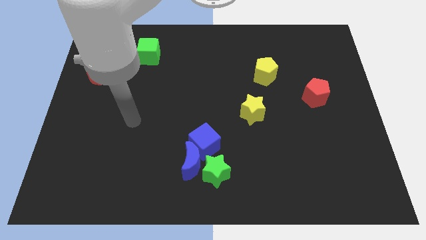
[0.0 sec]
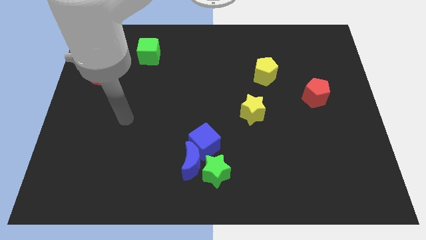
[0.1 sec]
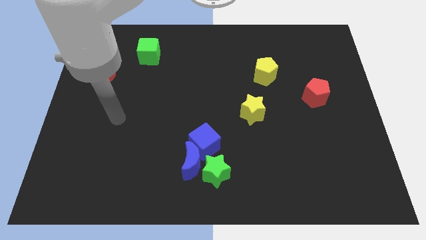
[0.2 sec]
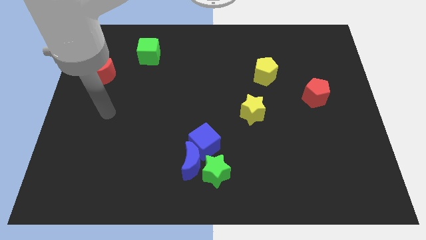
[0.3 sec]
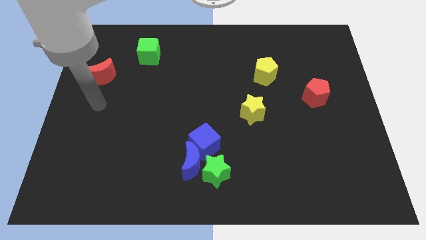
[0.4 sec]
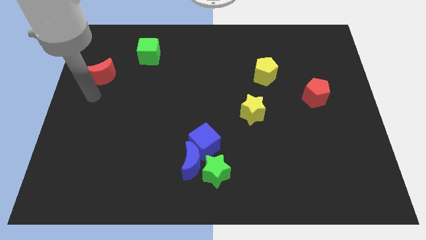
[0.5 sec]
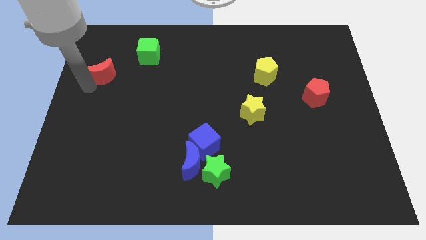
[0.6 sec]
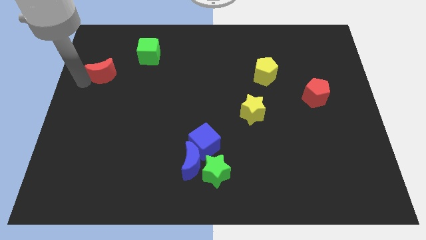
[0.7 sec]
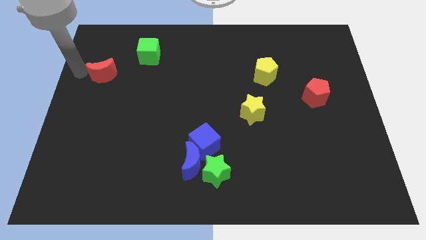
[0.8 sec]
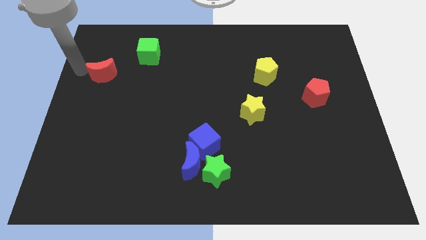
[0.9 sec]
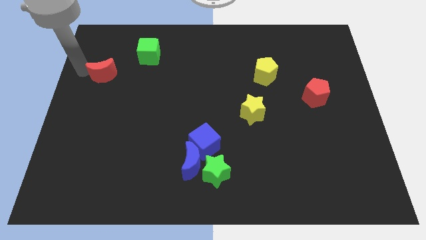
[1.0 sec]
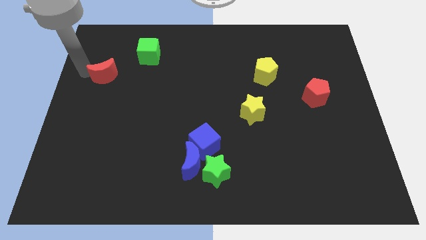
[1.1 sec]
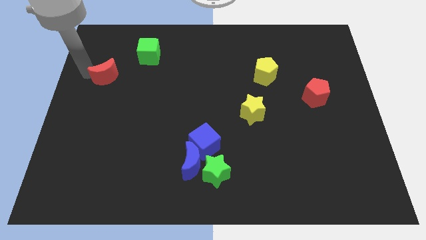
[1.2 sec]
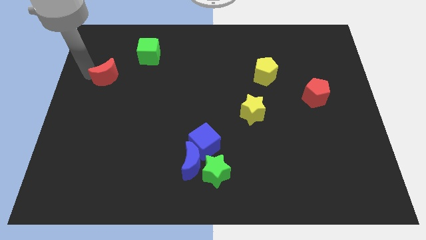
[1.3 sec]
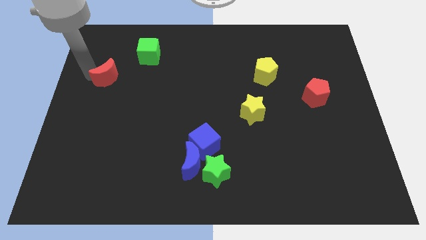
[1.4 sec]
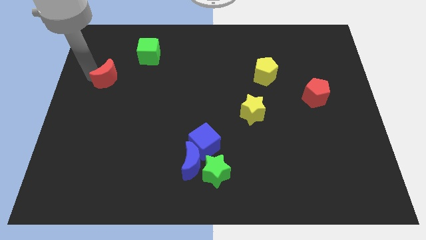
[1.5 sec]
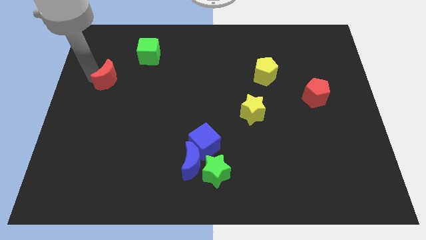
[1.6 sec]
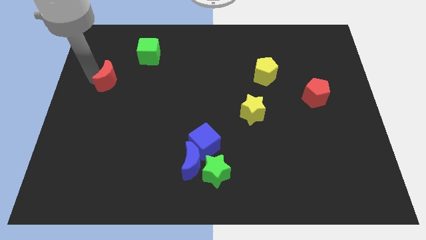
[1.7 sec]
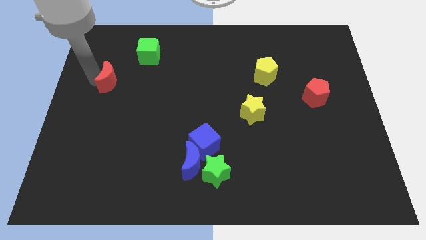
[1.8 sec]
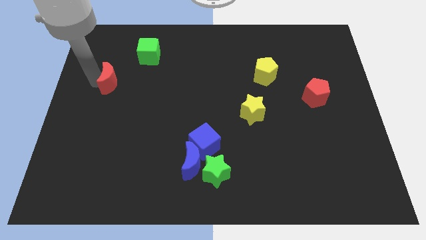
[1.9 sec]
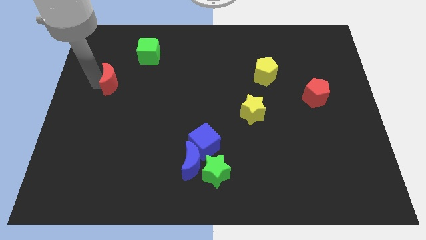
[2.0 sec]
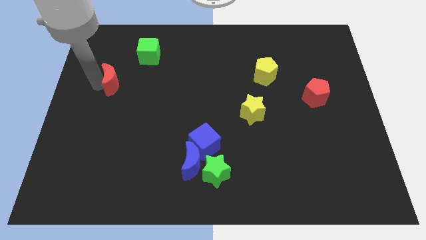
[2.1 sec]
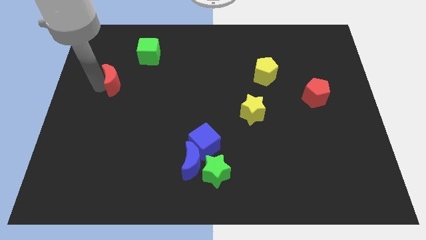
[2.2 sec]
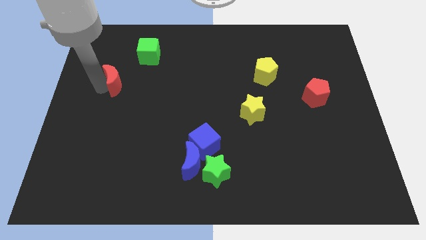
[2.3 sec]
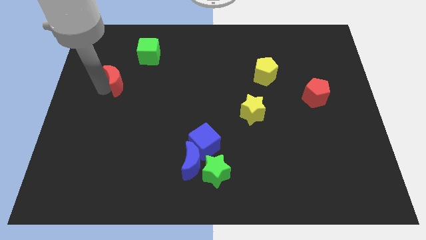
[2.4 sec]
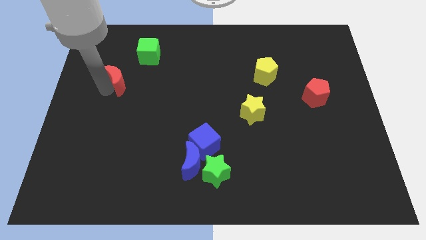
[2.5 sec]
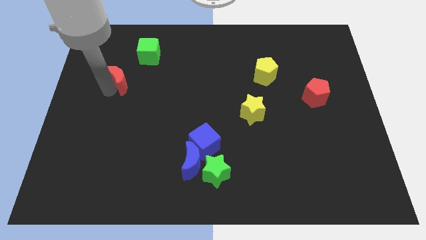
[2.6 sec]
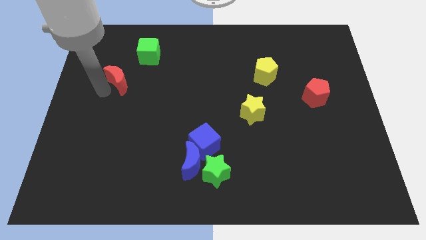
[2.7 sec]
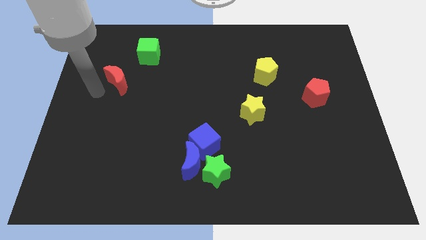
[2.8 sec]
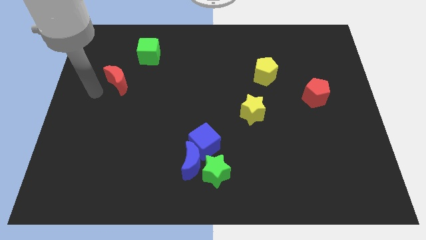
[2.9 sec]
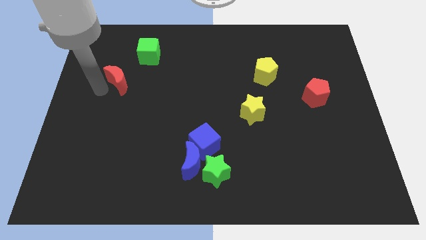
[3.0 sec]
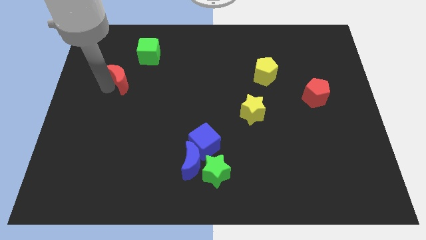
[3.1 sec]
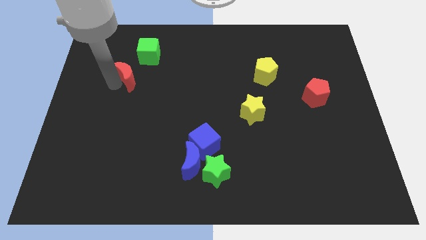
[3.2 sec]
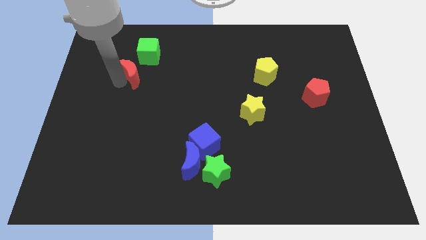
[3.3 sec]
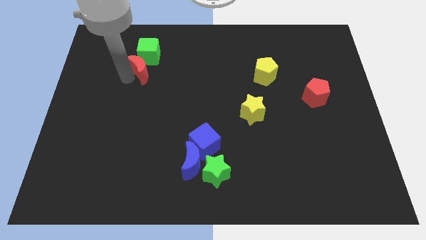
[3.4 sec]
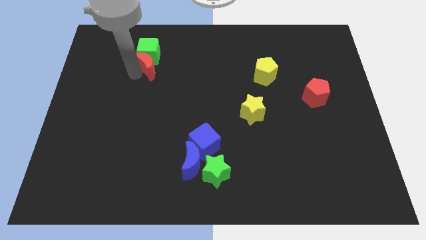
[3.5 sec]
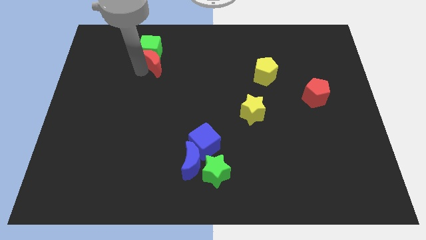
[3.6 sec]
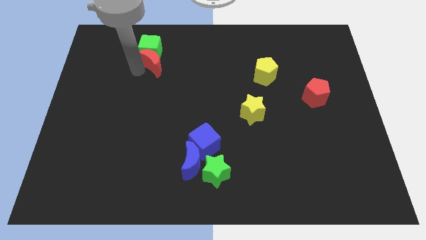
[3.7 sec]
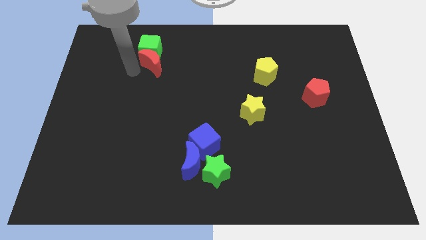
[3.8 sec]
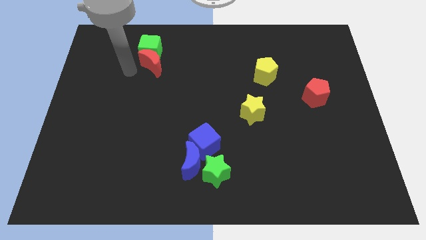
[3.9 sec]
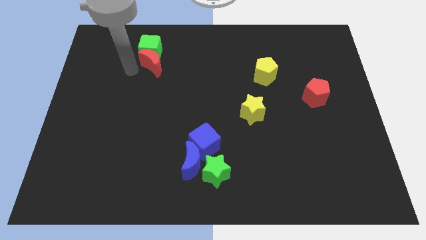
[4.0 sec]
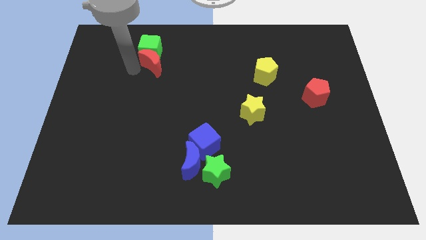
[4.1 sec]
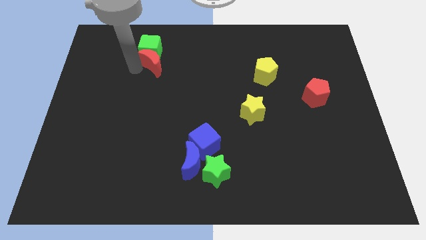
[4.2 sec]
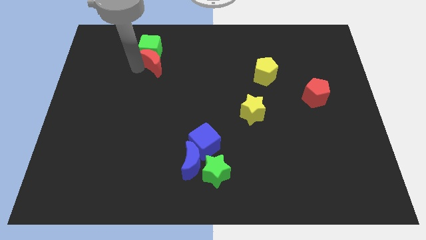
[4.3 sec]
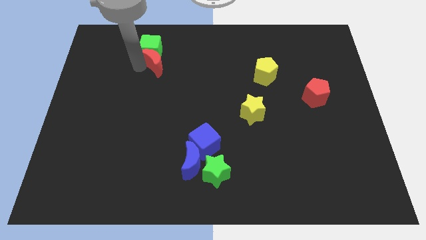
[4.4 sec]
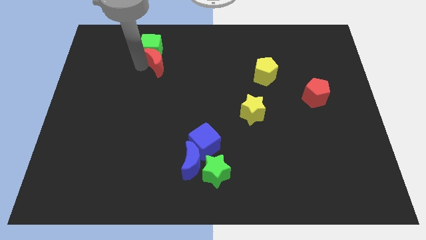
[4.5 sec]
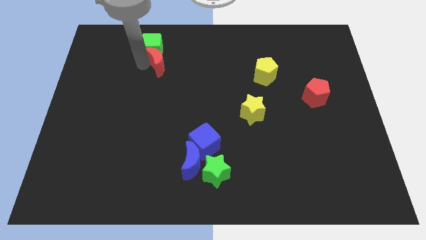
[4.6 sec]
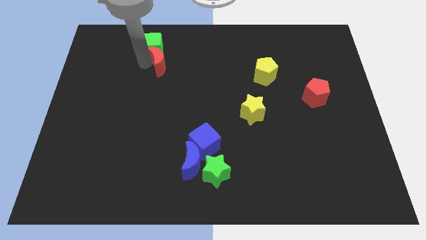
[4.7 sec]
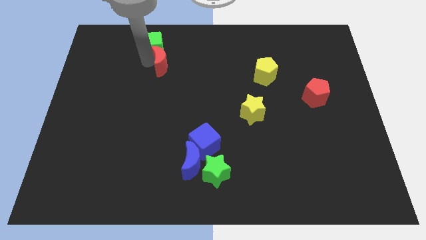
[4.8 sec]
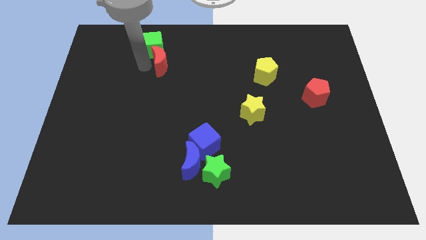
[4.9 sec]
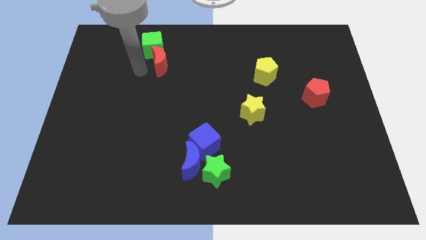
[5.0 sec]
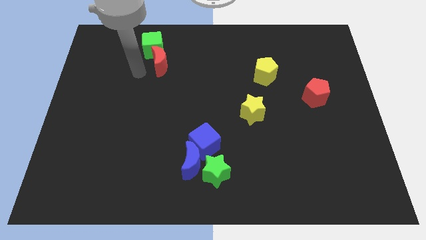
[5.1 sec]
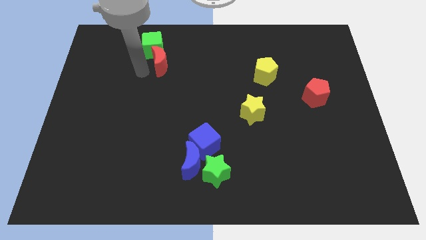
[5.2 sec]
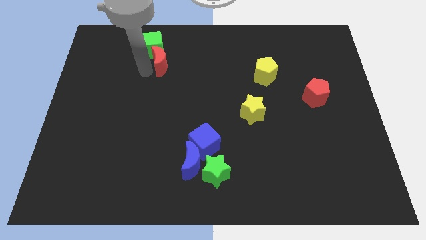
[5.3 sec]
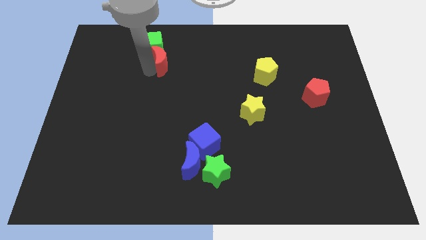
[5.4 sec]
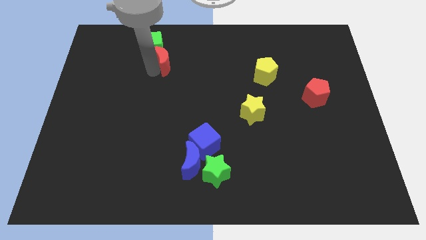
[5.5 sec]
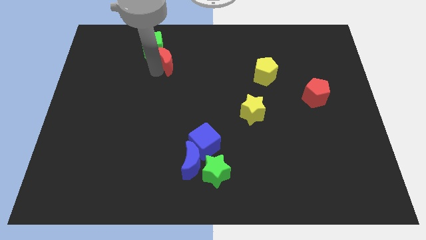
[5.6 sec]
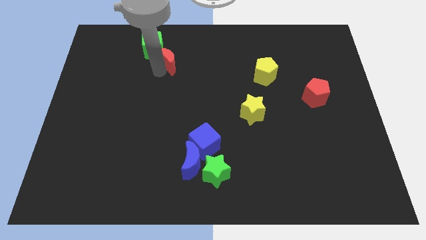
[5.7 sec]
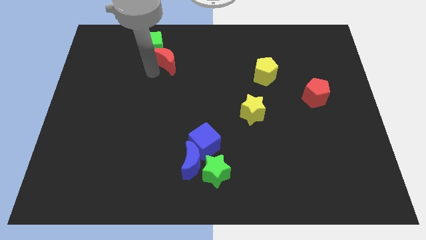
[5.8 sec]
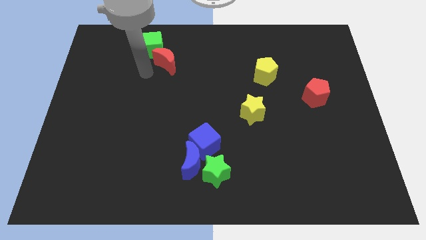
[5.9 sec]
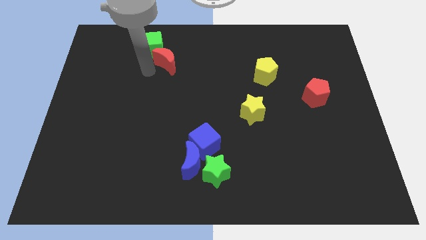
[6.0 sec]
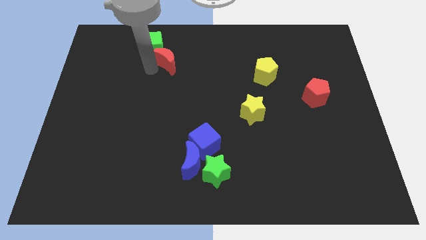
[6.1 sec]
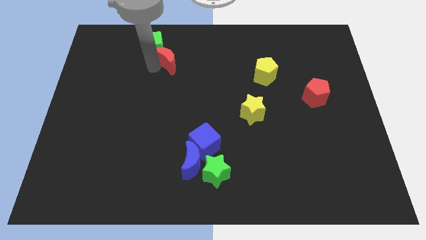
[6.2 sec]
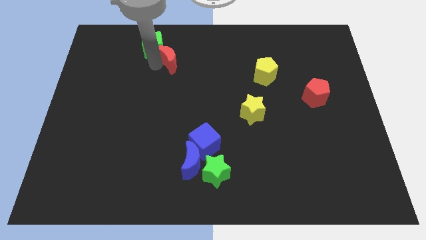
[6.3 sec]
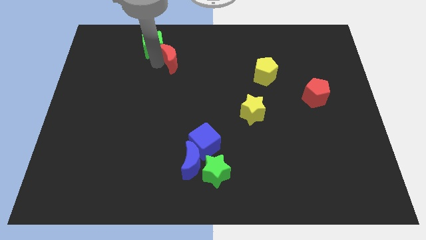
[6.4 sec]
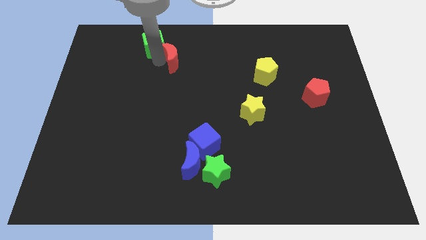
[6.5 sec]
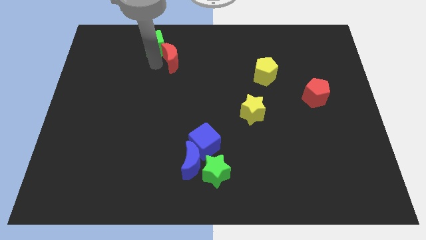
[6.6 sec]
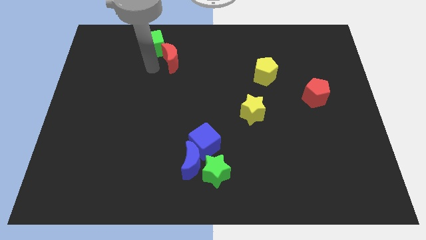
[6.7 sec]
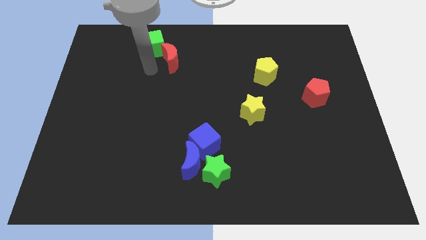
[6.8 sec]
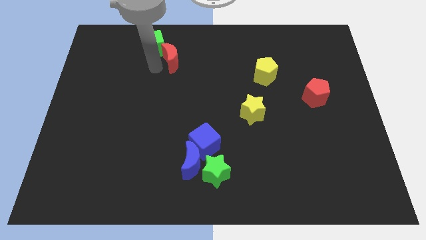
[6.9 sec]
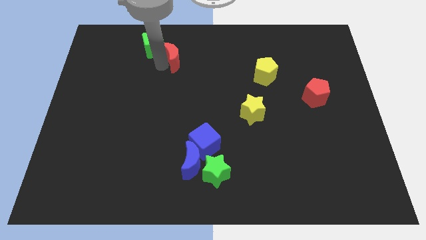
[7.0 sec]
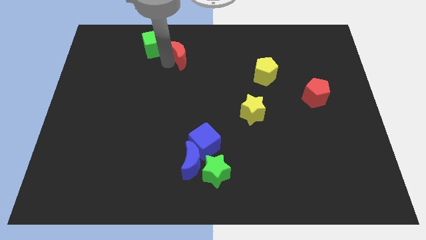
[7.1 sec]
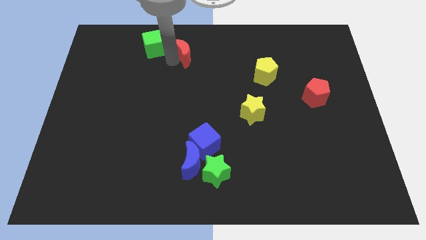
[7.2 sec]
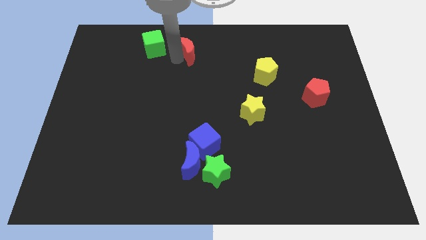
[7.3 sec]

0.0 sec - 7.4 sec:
move the red moon to the top side

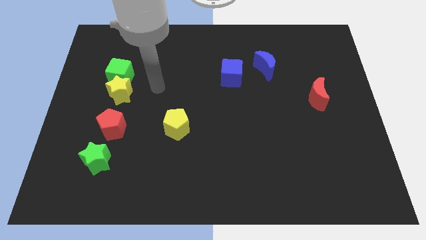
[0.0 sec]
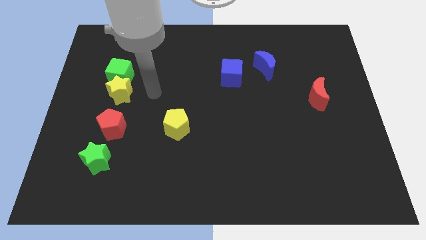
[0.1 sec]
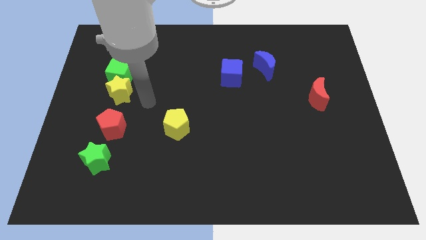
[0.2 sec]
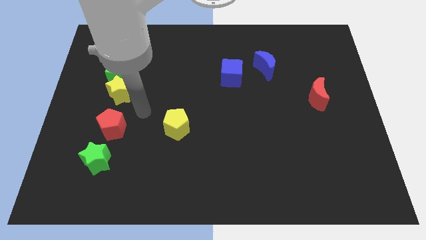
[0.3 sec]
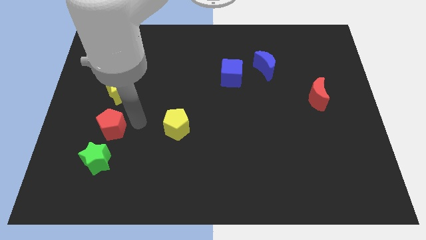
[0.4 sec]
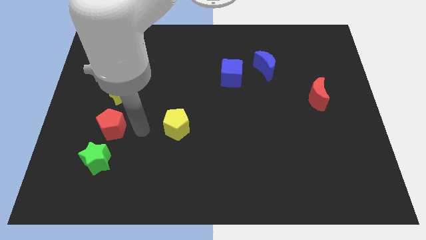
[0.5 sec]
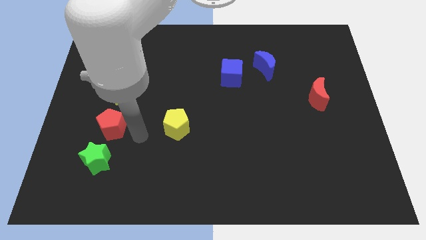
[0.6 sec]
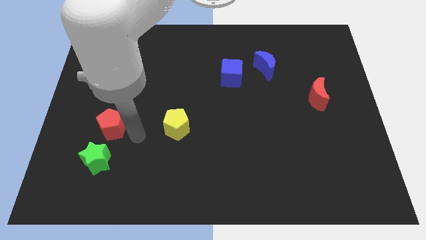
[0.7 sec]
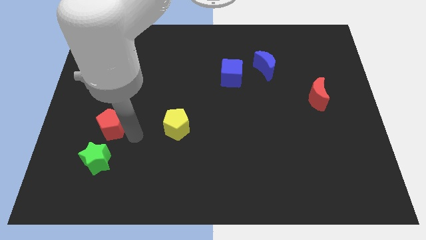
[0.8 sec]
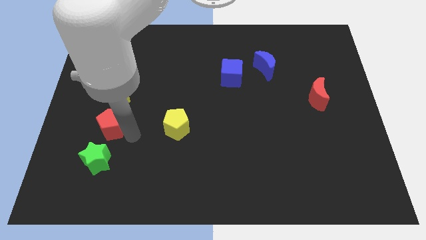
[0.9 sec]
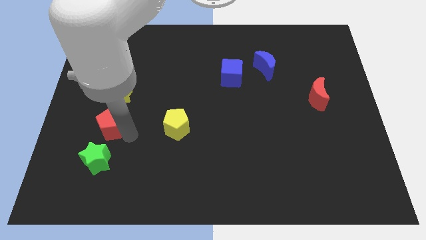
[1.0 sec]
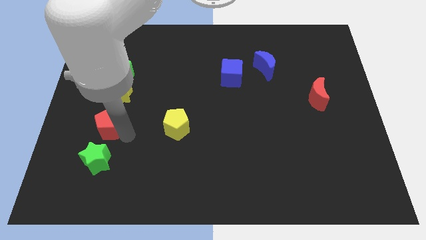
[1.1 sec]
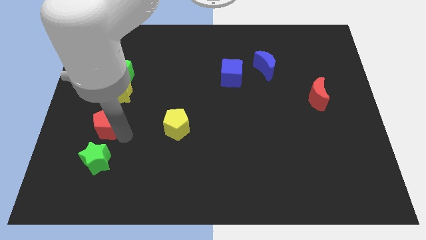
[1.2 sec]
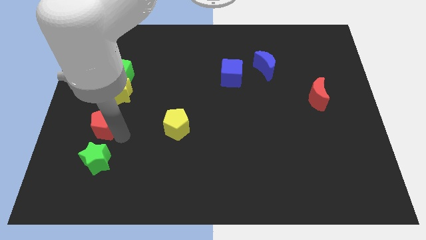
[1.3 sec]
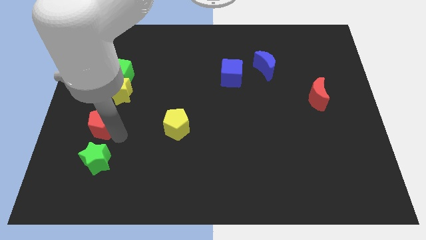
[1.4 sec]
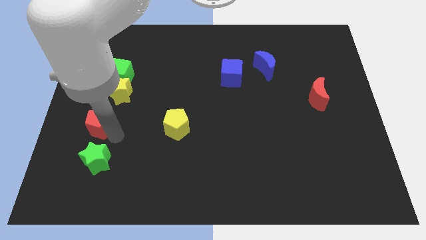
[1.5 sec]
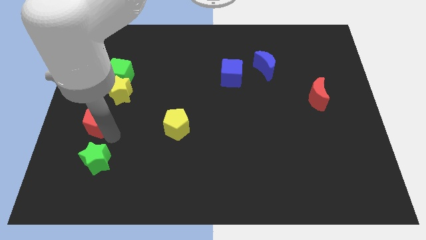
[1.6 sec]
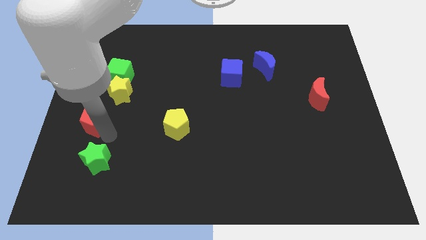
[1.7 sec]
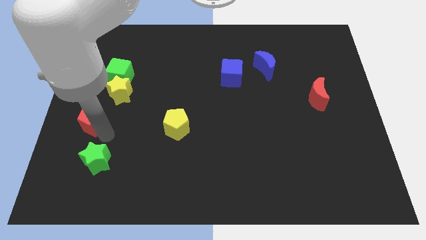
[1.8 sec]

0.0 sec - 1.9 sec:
move the red pentagon to the left side of the board
